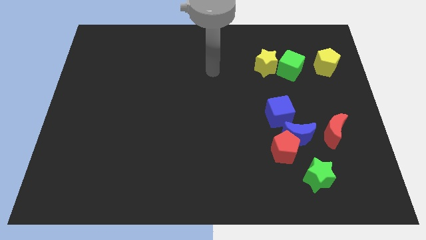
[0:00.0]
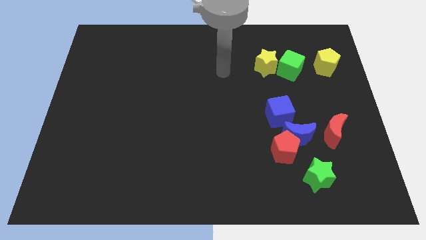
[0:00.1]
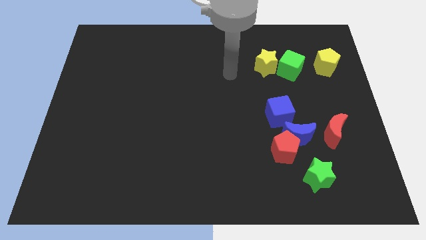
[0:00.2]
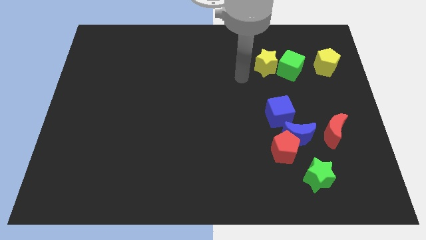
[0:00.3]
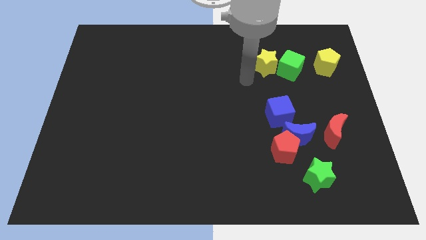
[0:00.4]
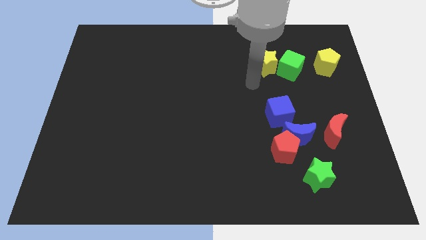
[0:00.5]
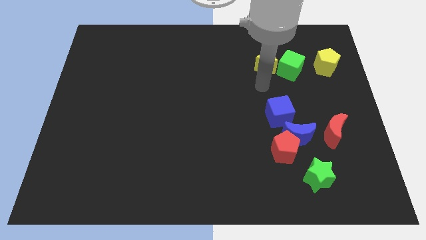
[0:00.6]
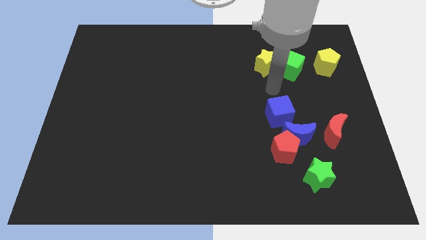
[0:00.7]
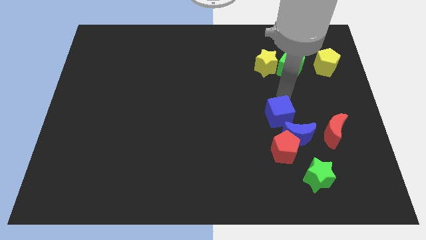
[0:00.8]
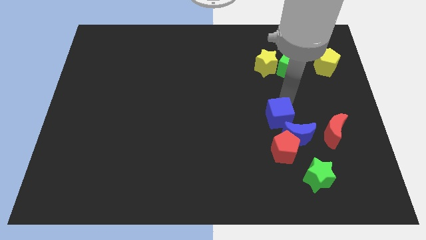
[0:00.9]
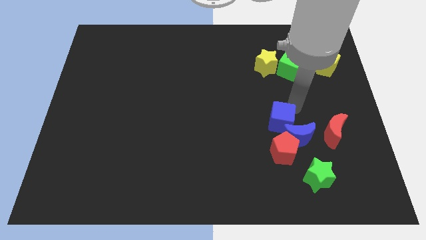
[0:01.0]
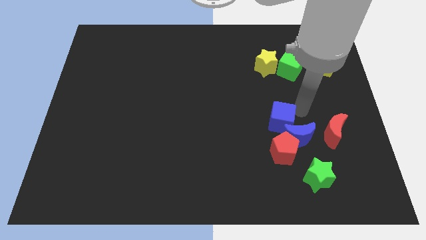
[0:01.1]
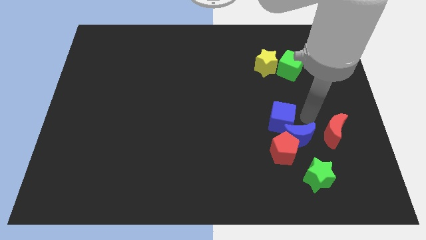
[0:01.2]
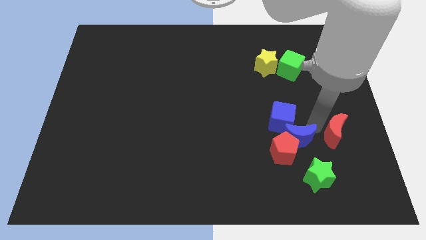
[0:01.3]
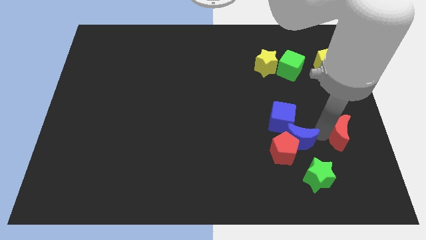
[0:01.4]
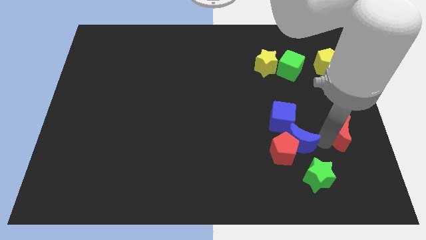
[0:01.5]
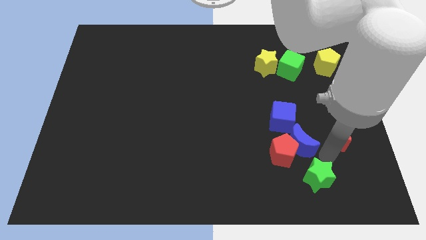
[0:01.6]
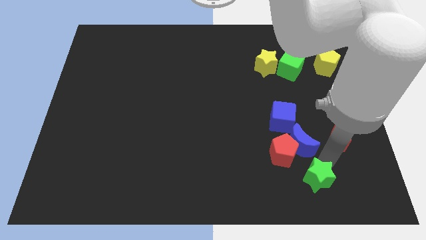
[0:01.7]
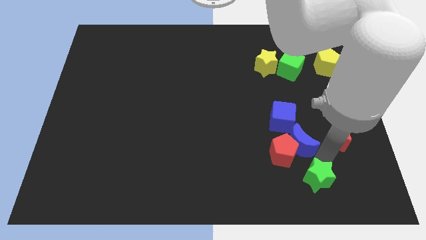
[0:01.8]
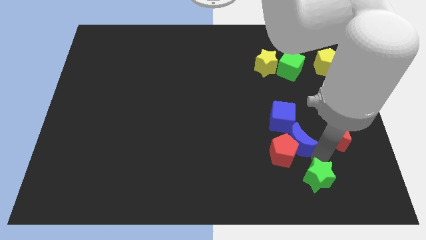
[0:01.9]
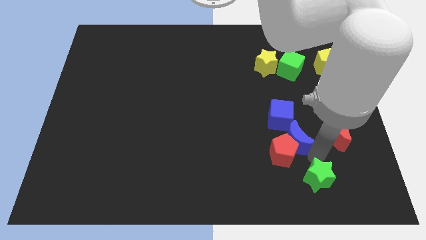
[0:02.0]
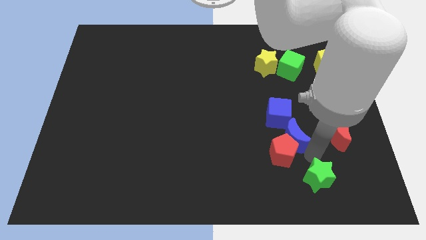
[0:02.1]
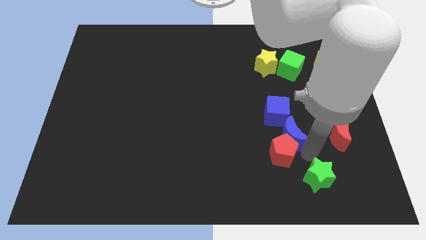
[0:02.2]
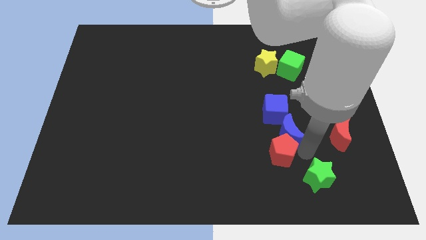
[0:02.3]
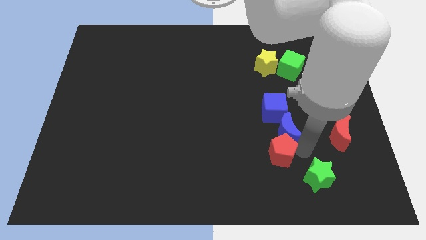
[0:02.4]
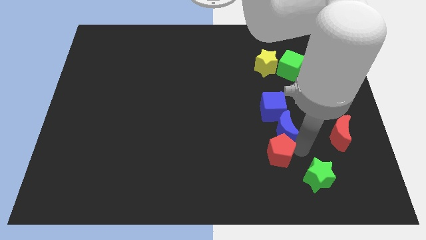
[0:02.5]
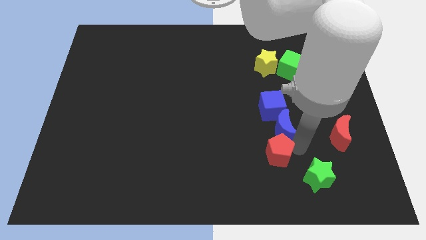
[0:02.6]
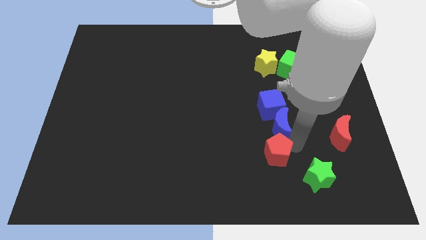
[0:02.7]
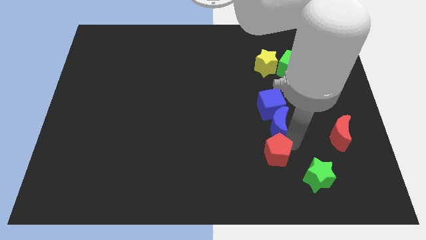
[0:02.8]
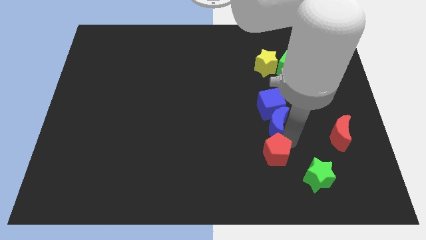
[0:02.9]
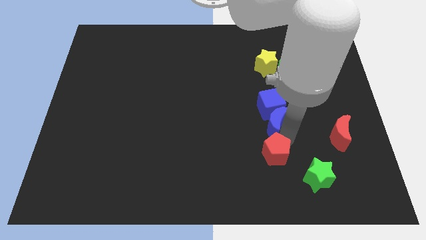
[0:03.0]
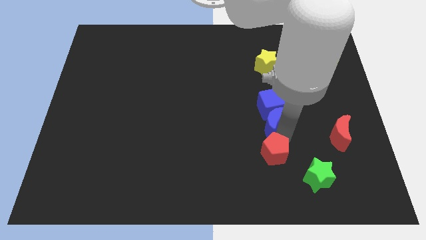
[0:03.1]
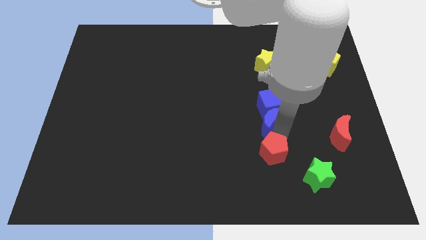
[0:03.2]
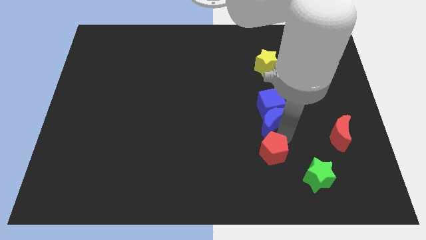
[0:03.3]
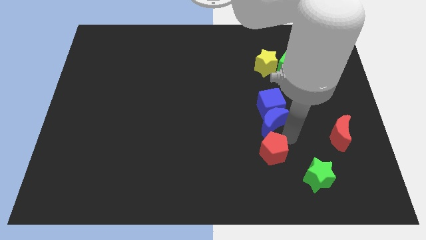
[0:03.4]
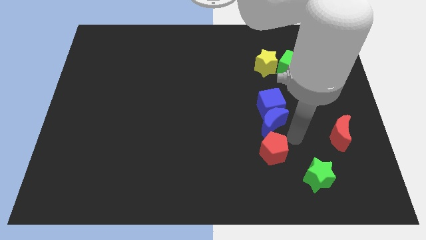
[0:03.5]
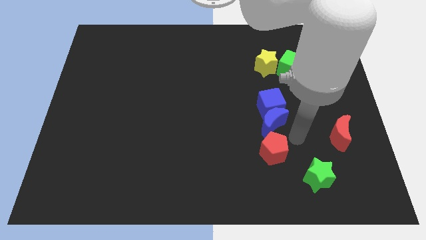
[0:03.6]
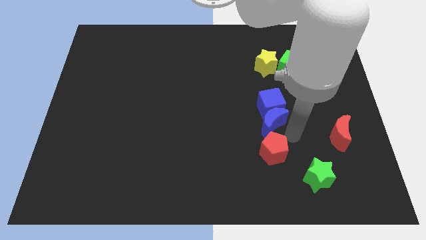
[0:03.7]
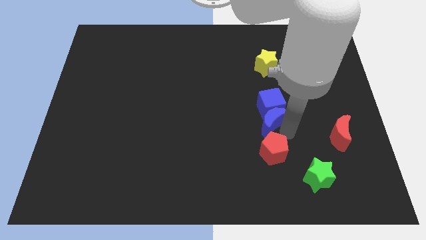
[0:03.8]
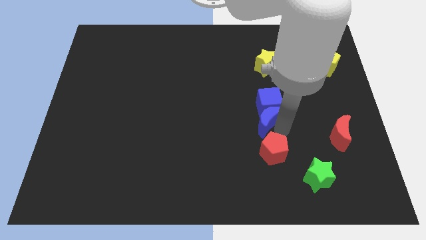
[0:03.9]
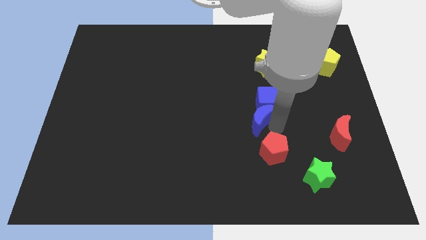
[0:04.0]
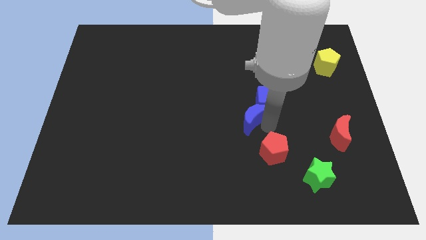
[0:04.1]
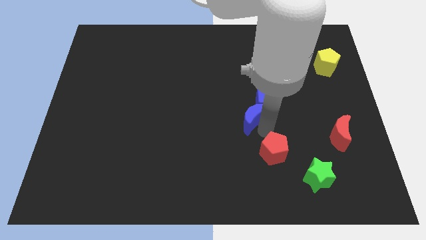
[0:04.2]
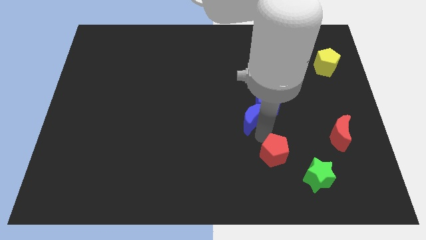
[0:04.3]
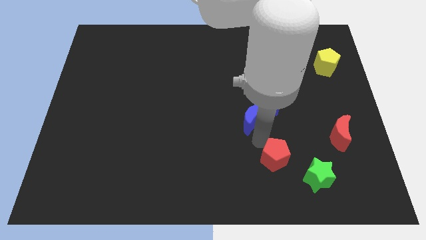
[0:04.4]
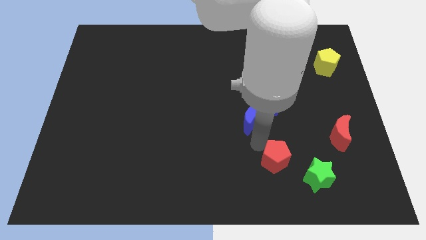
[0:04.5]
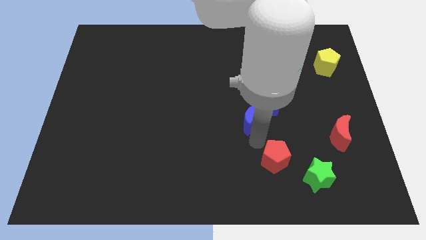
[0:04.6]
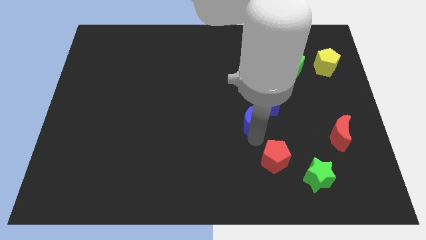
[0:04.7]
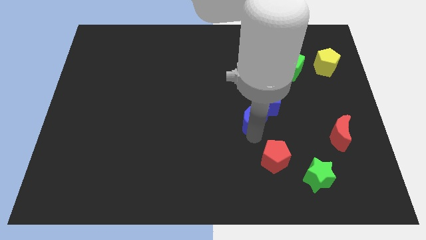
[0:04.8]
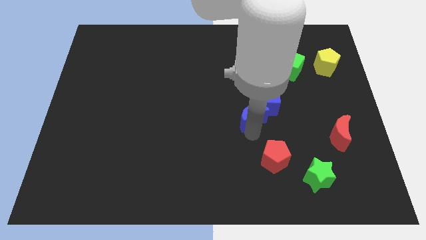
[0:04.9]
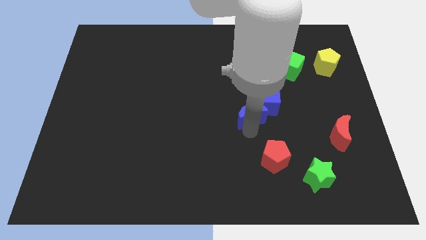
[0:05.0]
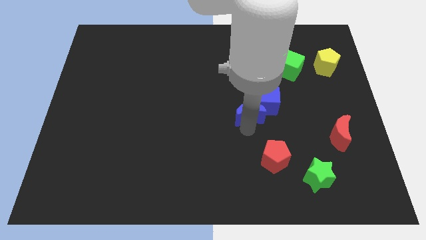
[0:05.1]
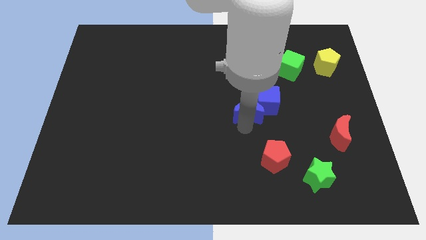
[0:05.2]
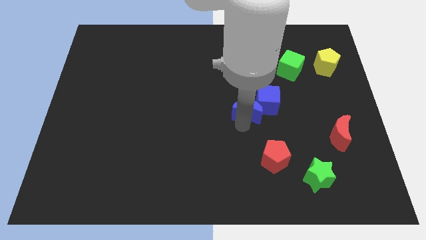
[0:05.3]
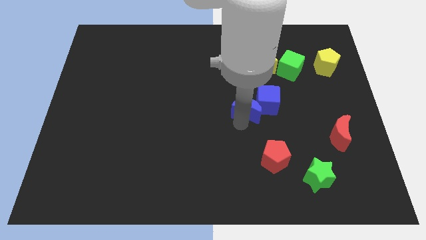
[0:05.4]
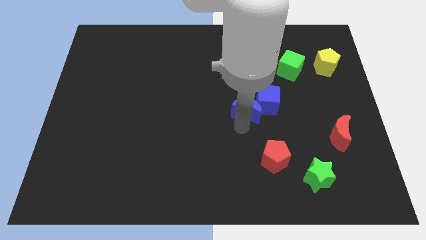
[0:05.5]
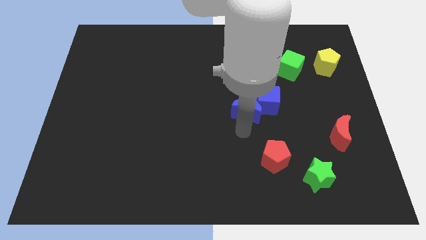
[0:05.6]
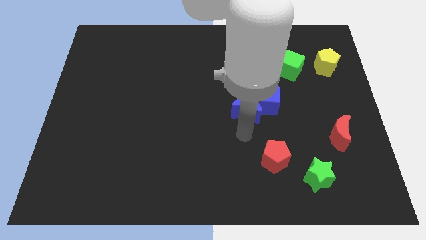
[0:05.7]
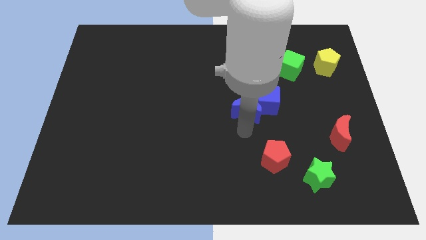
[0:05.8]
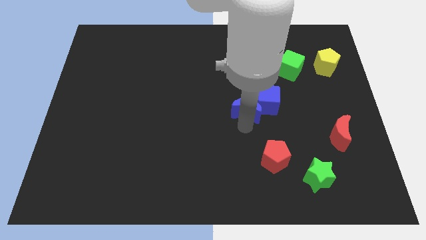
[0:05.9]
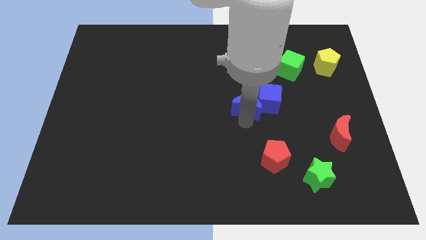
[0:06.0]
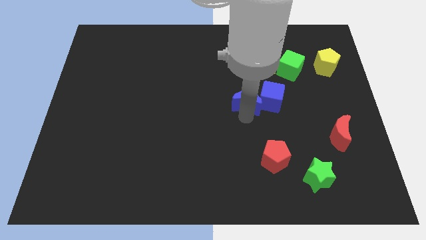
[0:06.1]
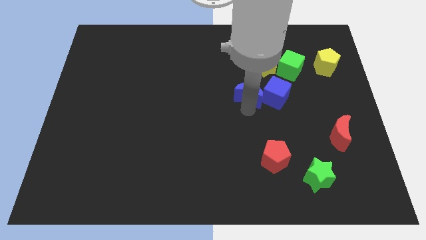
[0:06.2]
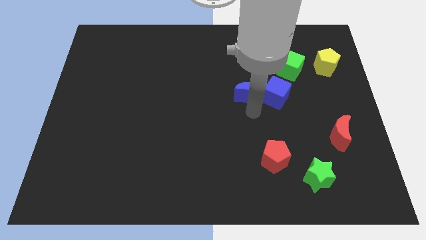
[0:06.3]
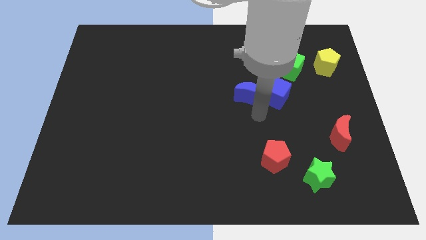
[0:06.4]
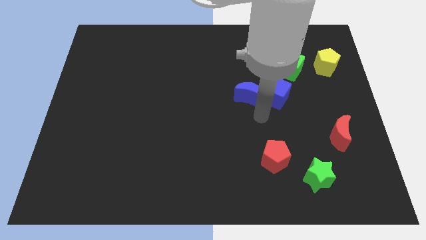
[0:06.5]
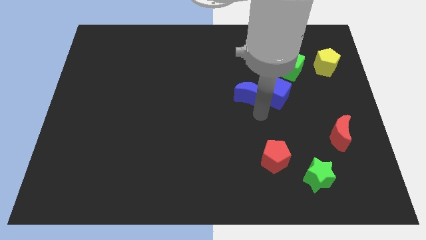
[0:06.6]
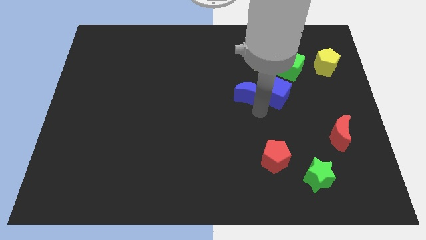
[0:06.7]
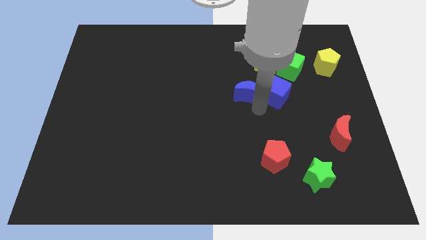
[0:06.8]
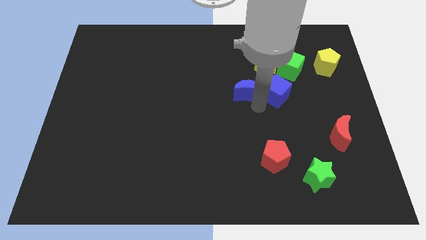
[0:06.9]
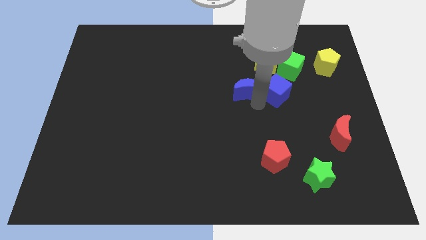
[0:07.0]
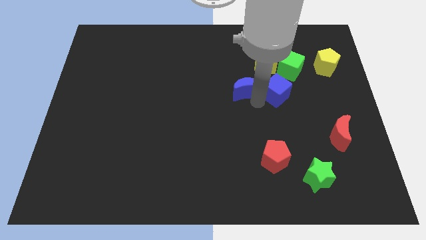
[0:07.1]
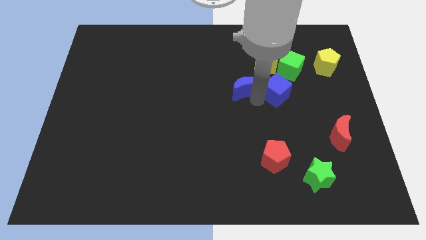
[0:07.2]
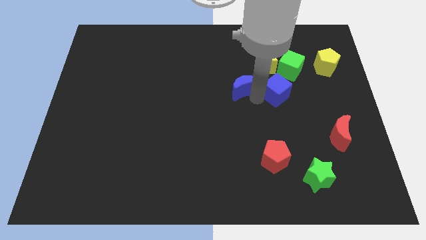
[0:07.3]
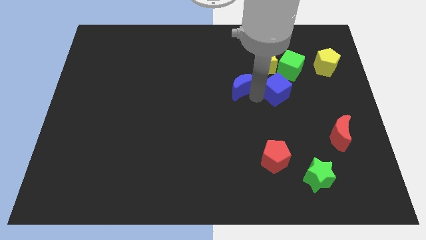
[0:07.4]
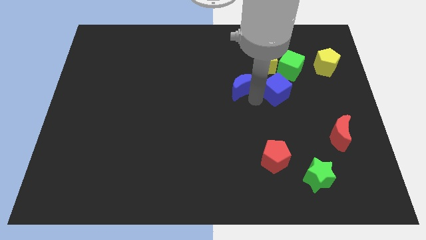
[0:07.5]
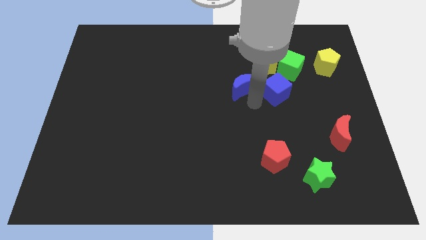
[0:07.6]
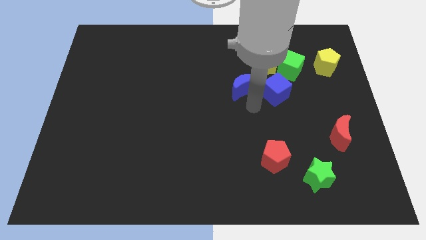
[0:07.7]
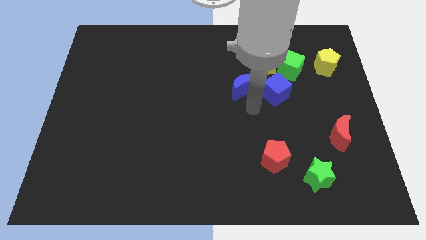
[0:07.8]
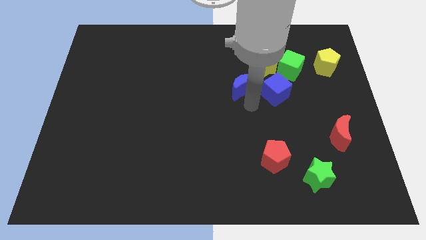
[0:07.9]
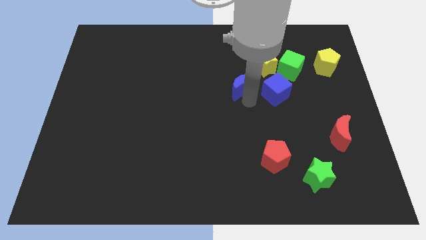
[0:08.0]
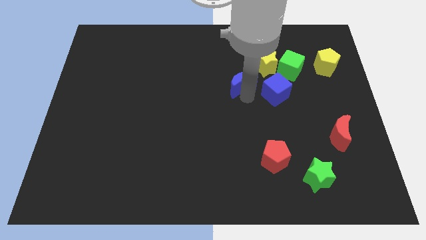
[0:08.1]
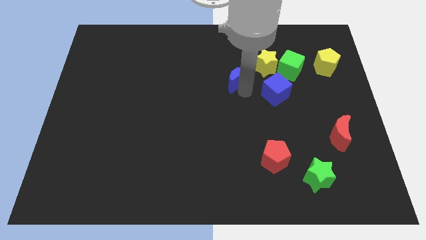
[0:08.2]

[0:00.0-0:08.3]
move the blue moon left of the yellow star
